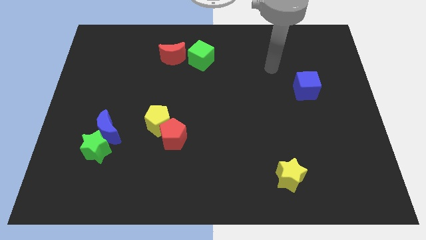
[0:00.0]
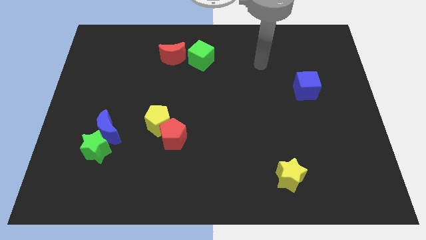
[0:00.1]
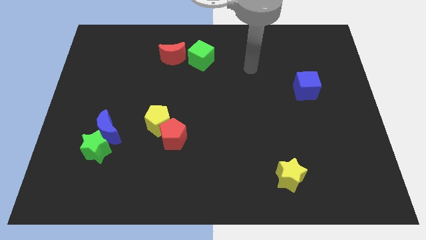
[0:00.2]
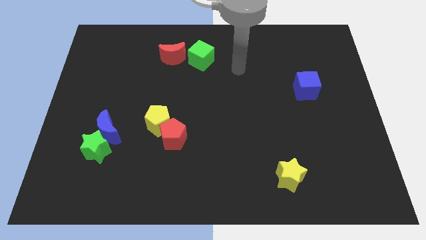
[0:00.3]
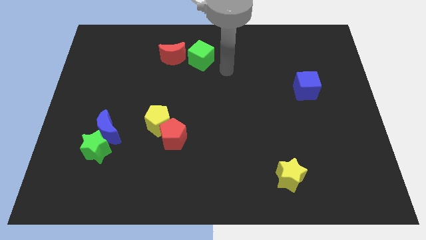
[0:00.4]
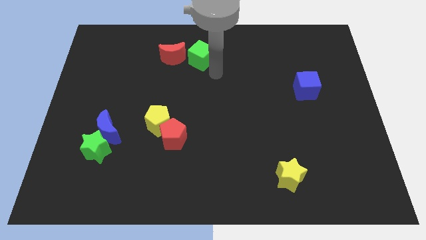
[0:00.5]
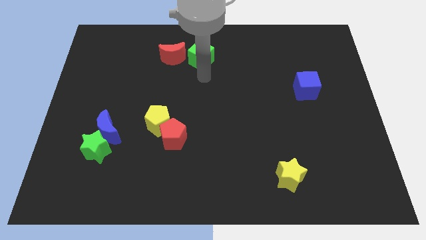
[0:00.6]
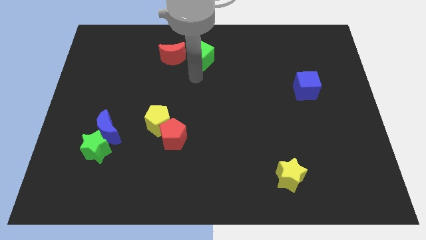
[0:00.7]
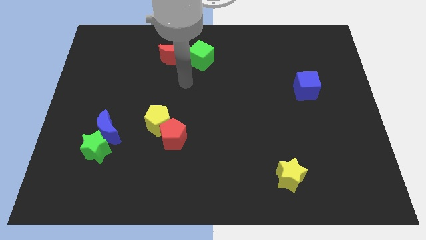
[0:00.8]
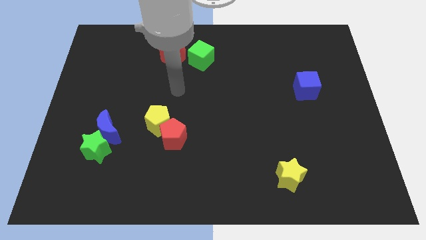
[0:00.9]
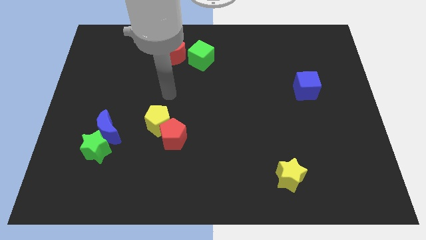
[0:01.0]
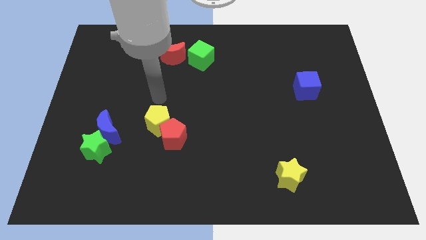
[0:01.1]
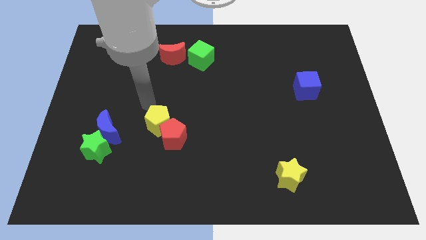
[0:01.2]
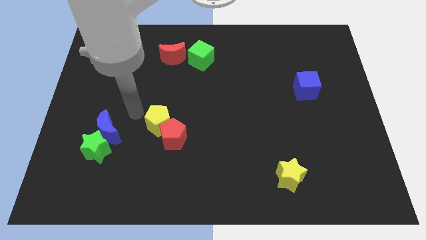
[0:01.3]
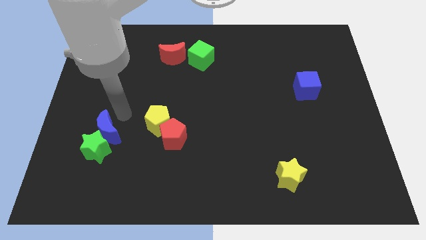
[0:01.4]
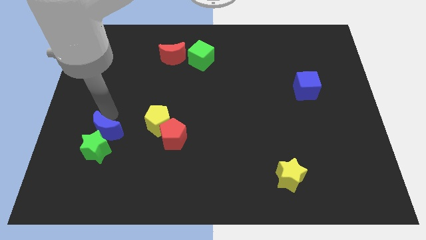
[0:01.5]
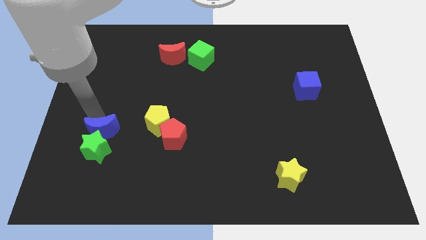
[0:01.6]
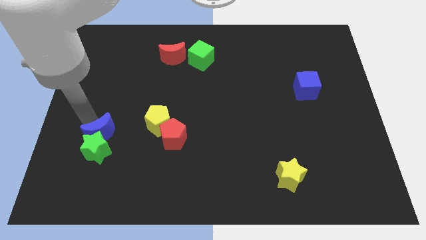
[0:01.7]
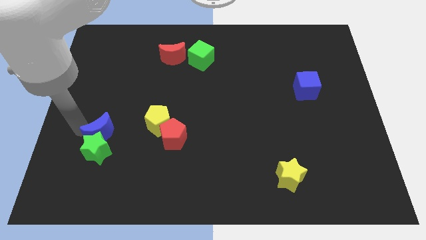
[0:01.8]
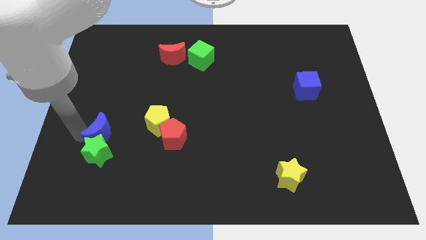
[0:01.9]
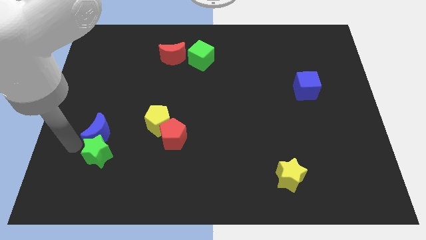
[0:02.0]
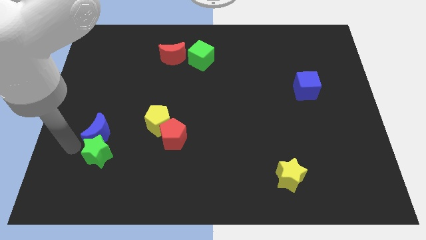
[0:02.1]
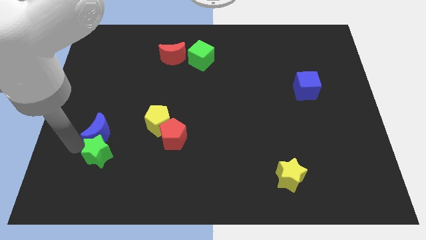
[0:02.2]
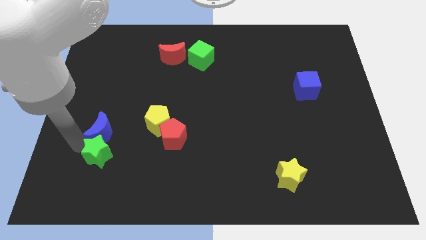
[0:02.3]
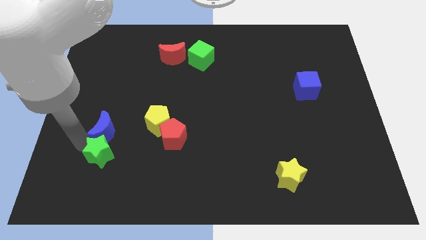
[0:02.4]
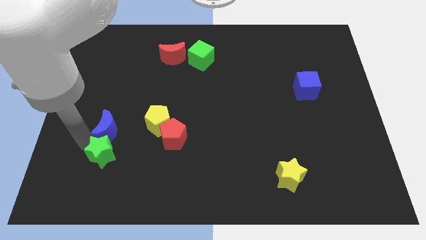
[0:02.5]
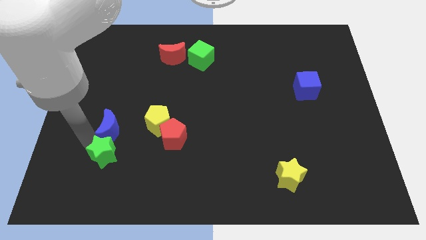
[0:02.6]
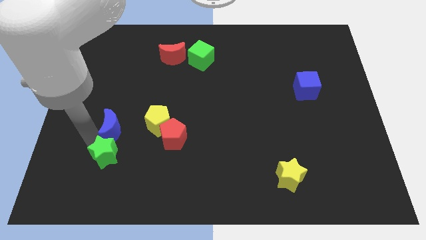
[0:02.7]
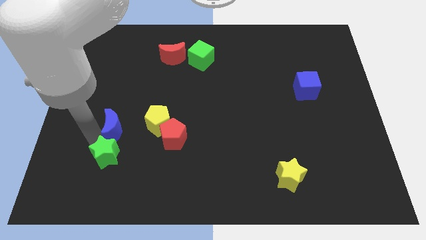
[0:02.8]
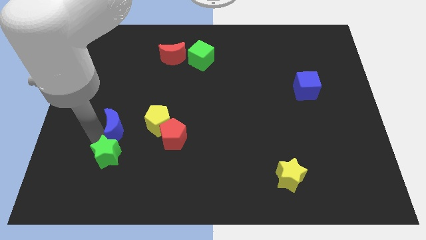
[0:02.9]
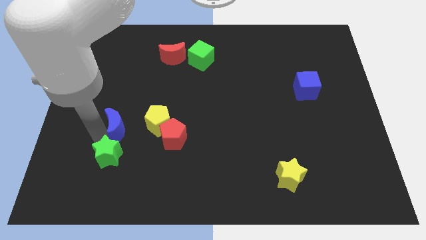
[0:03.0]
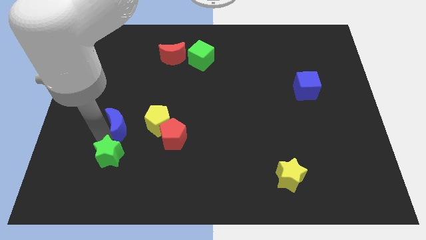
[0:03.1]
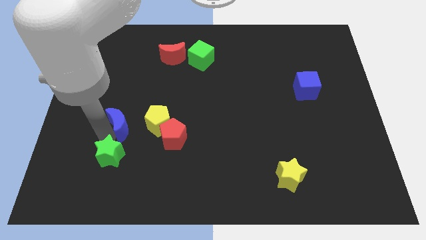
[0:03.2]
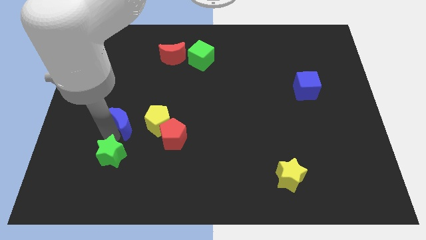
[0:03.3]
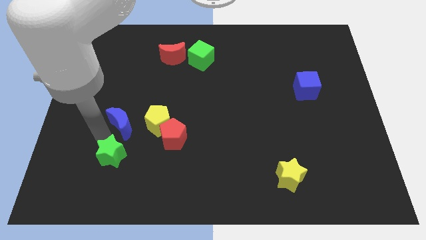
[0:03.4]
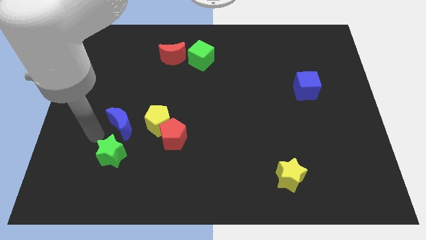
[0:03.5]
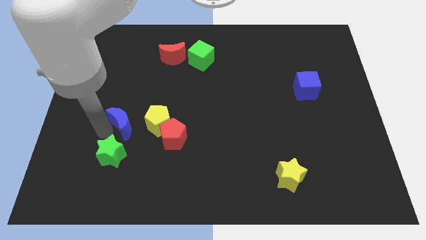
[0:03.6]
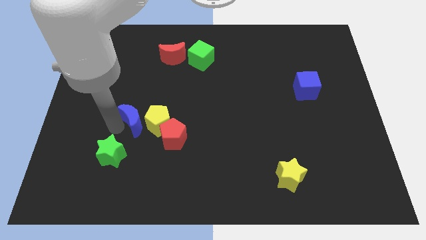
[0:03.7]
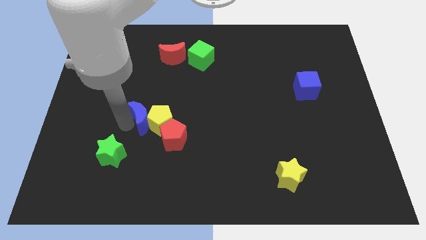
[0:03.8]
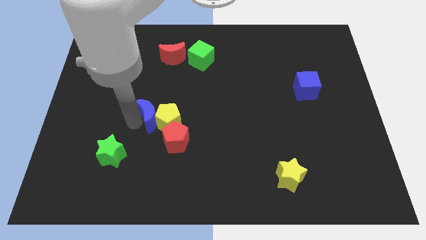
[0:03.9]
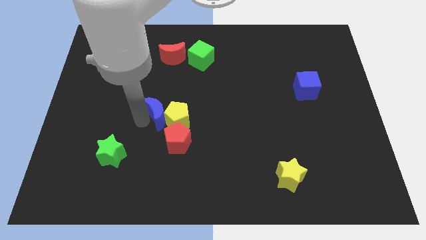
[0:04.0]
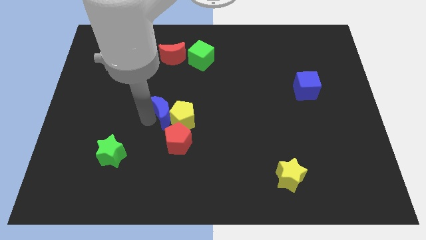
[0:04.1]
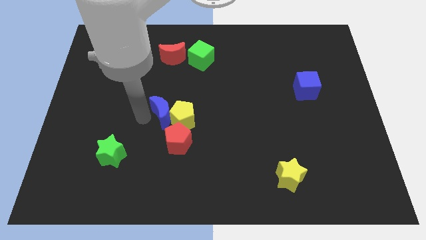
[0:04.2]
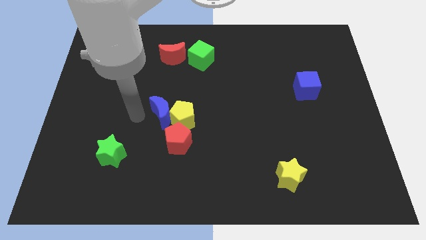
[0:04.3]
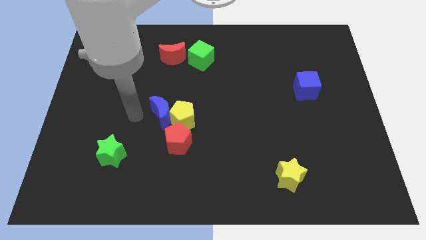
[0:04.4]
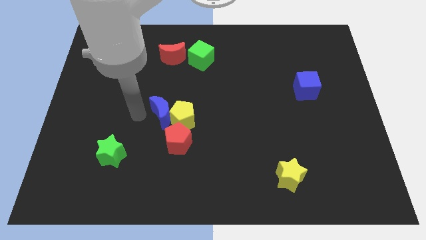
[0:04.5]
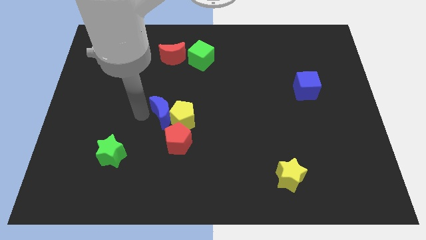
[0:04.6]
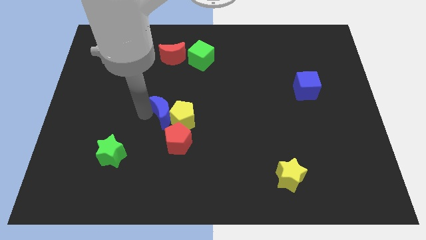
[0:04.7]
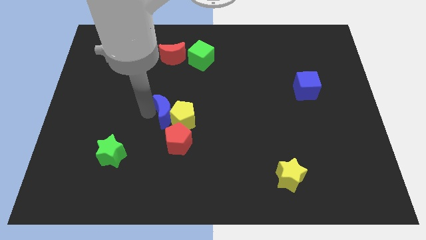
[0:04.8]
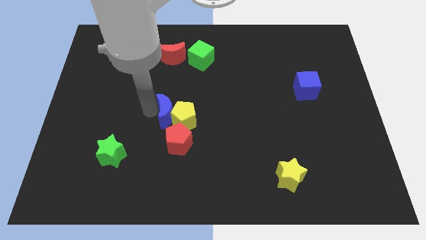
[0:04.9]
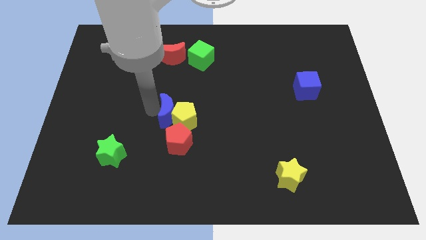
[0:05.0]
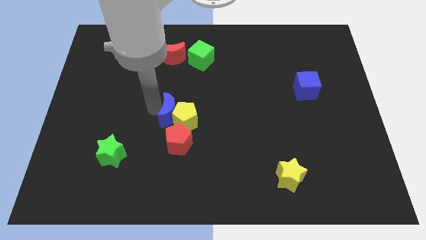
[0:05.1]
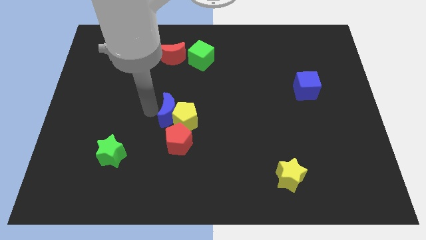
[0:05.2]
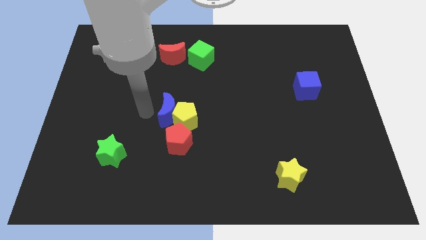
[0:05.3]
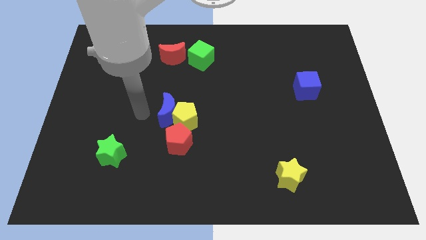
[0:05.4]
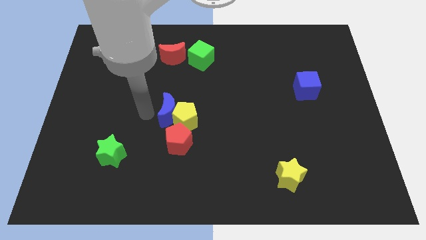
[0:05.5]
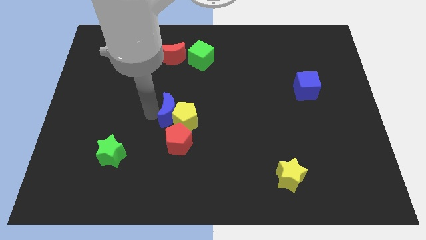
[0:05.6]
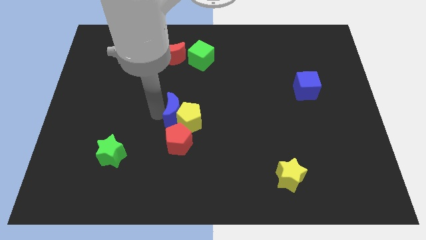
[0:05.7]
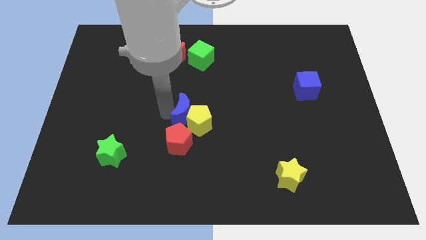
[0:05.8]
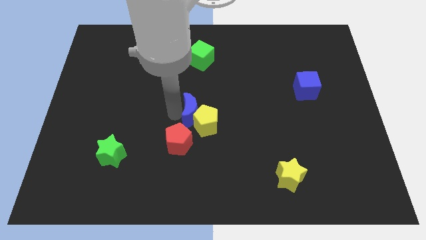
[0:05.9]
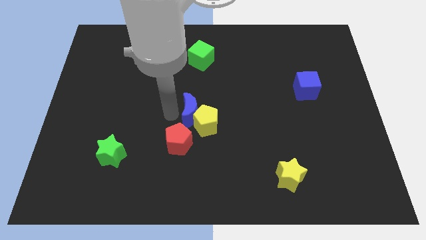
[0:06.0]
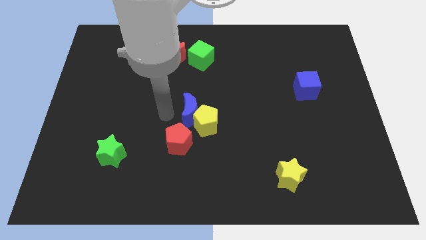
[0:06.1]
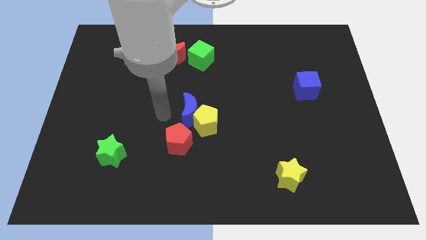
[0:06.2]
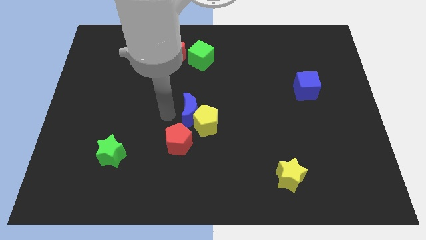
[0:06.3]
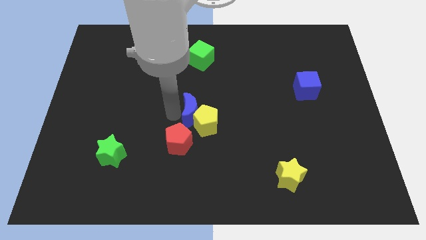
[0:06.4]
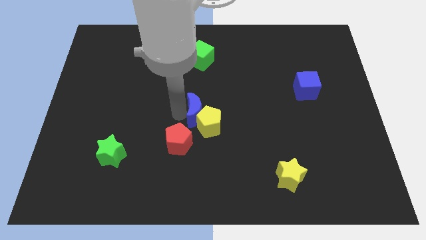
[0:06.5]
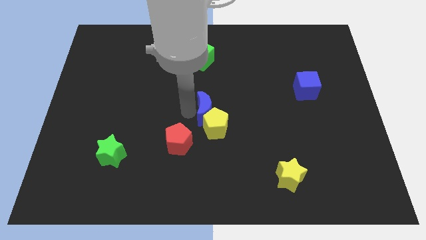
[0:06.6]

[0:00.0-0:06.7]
push the blue moon right

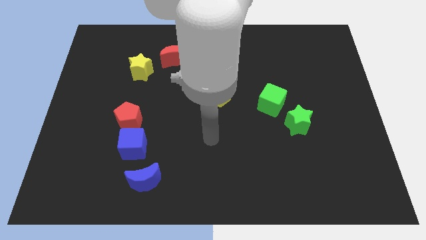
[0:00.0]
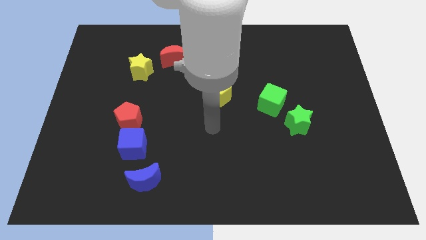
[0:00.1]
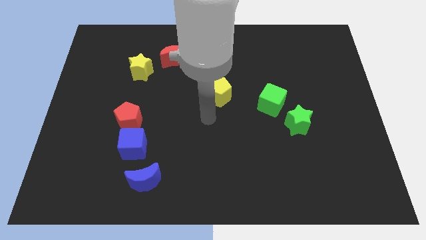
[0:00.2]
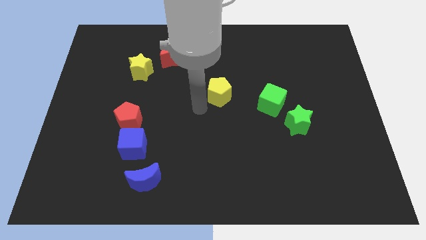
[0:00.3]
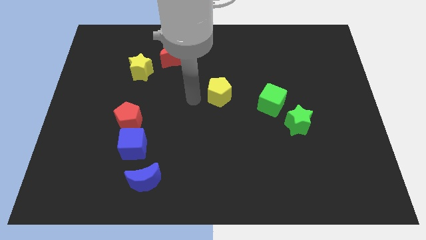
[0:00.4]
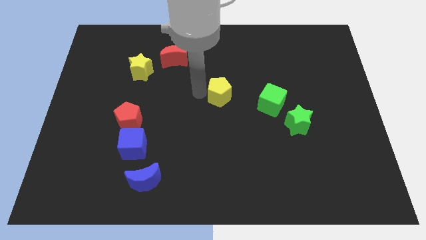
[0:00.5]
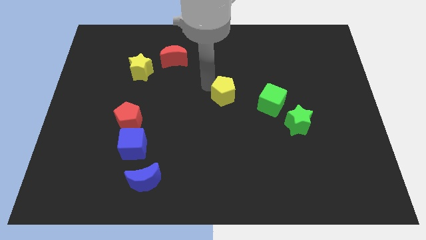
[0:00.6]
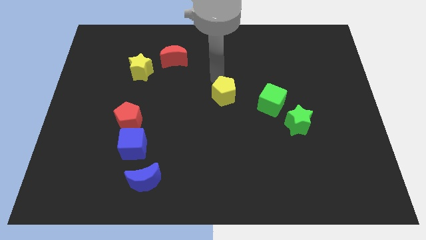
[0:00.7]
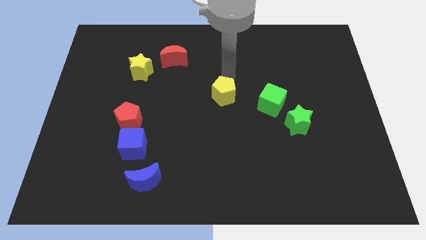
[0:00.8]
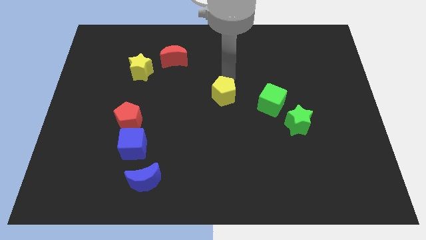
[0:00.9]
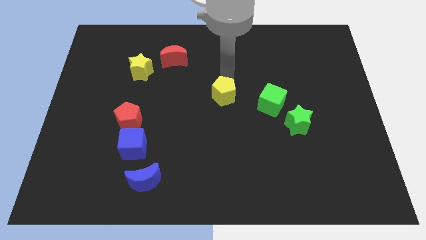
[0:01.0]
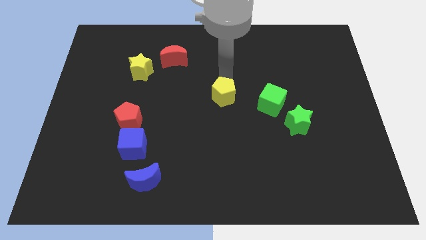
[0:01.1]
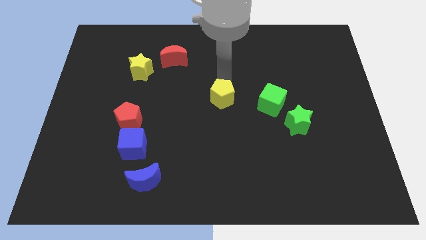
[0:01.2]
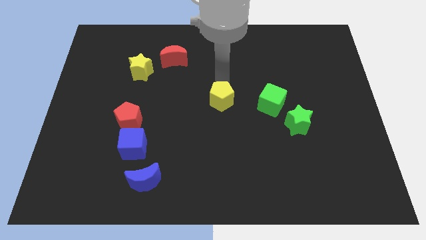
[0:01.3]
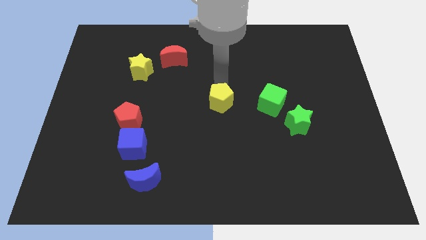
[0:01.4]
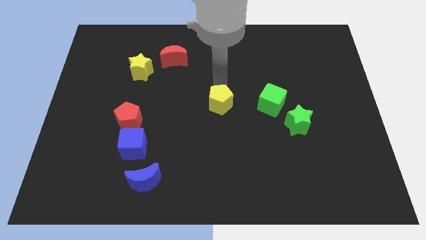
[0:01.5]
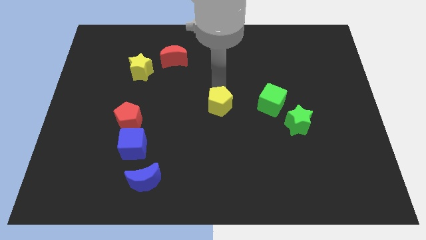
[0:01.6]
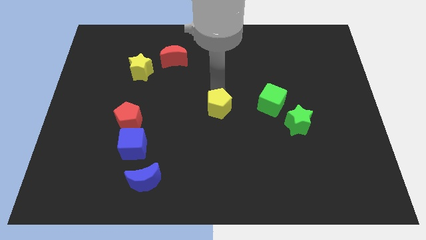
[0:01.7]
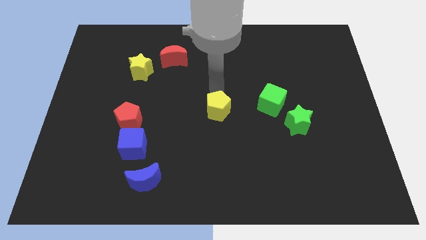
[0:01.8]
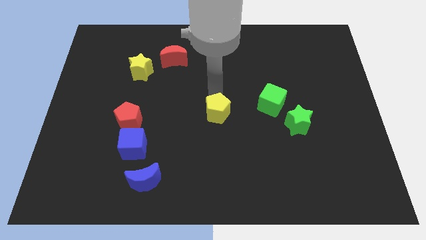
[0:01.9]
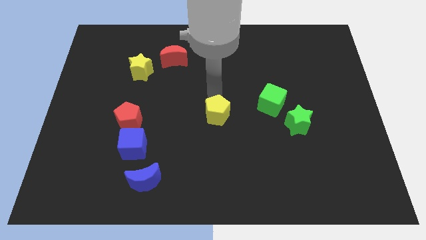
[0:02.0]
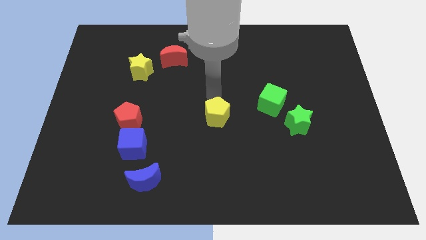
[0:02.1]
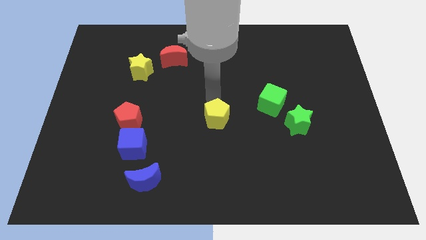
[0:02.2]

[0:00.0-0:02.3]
move the yellow pentagon down slightly
